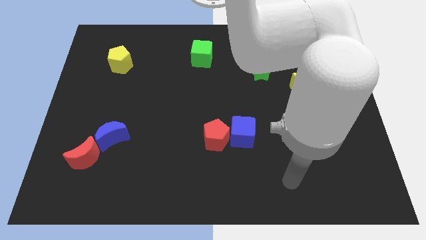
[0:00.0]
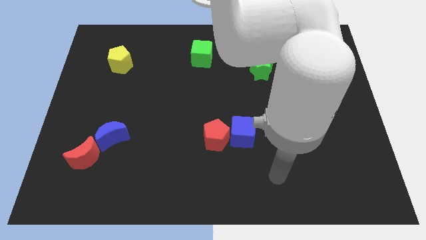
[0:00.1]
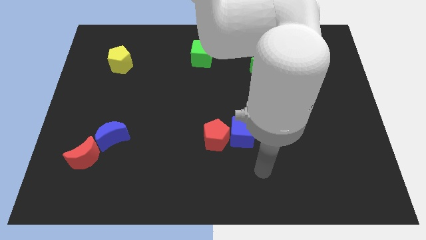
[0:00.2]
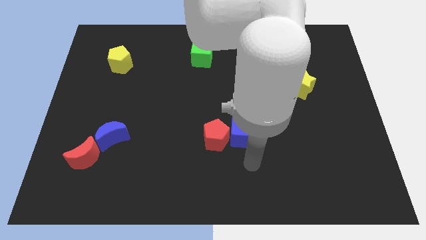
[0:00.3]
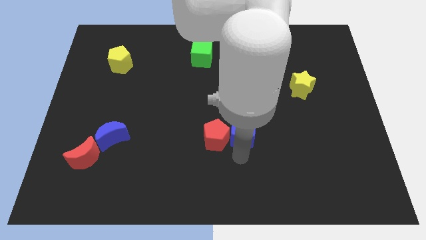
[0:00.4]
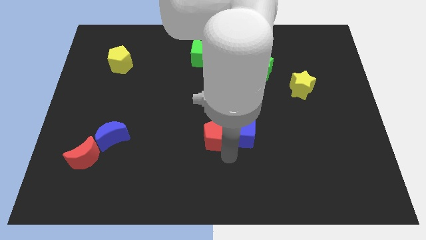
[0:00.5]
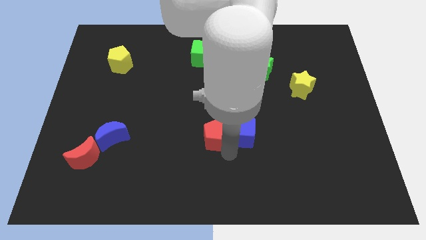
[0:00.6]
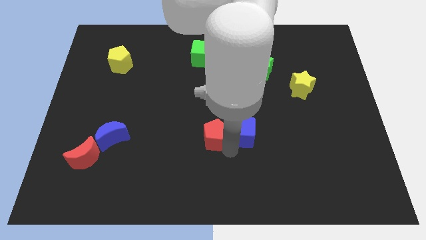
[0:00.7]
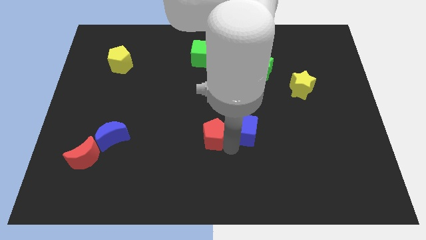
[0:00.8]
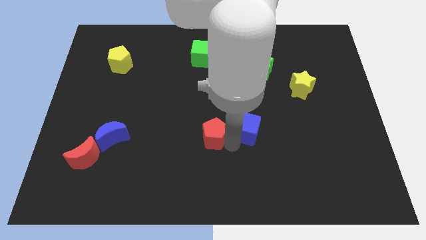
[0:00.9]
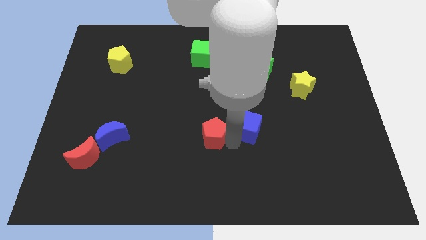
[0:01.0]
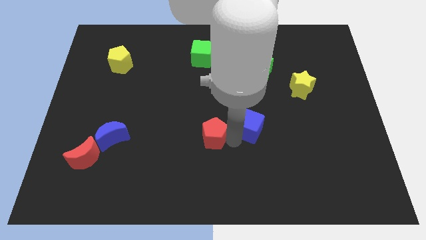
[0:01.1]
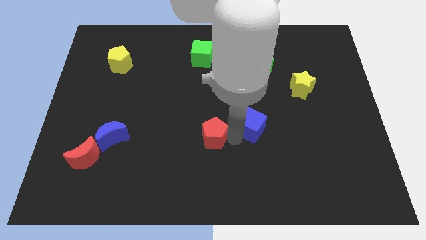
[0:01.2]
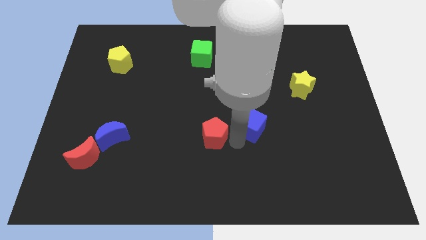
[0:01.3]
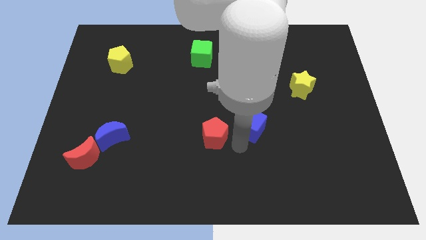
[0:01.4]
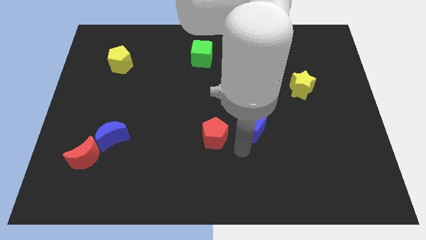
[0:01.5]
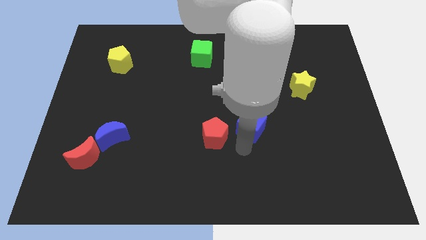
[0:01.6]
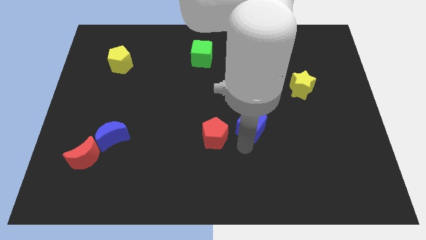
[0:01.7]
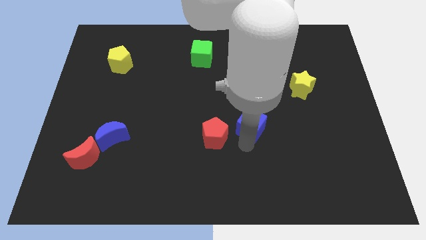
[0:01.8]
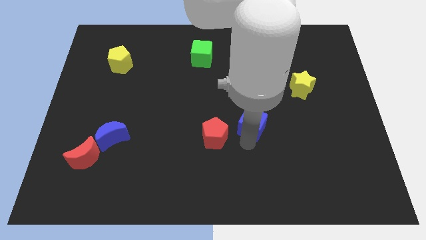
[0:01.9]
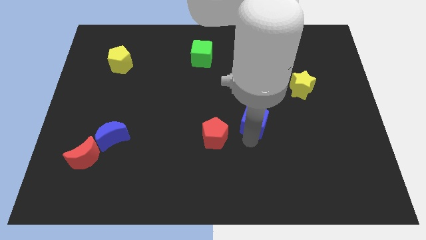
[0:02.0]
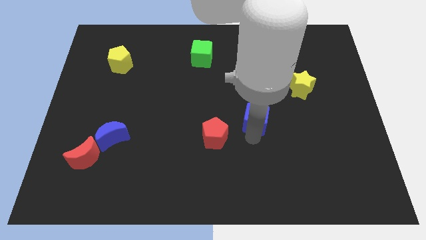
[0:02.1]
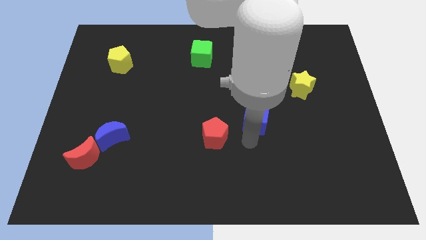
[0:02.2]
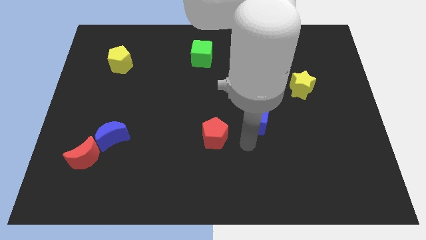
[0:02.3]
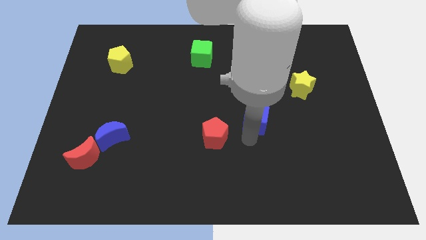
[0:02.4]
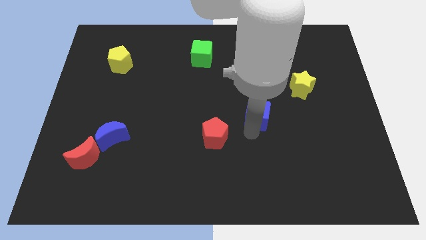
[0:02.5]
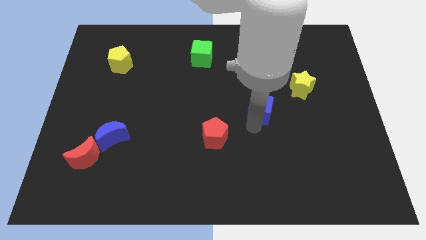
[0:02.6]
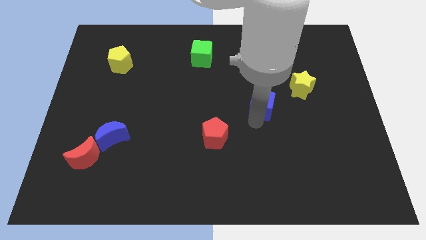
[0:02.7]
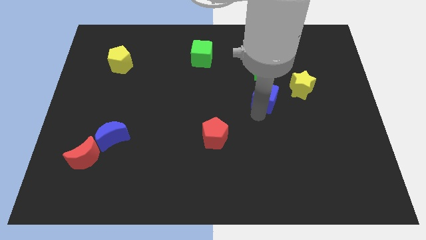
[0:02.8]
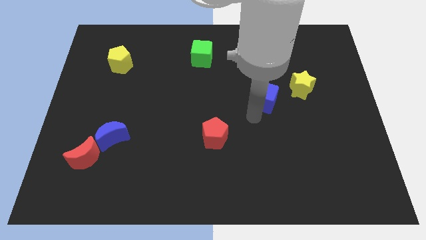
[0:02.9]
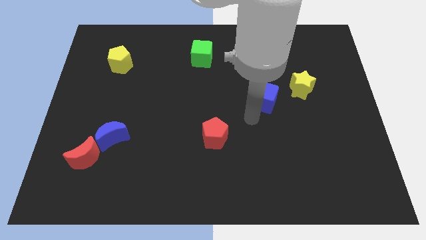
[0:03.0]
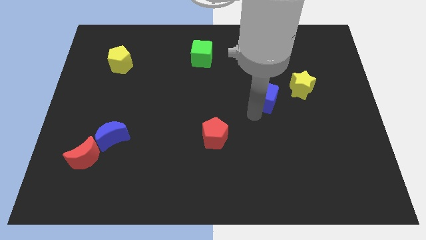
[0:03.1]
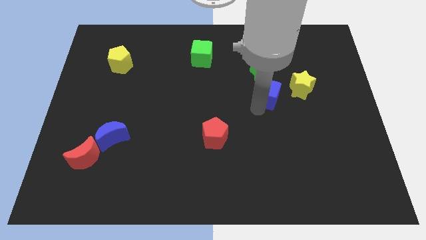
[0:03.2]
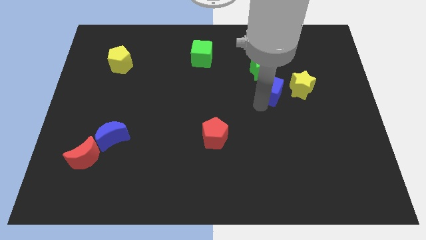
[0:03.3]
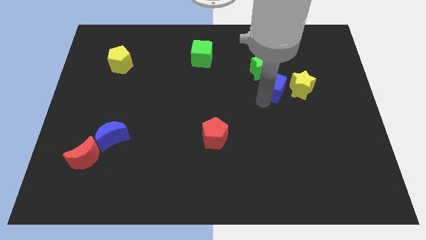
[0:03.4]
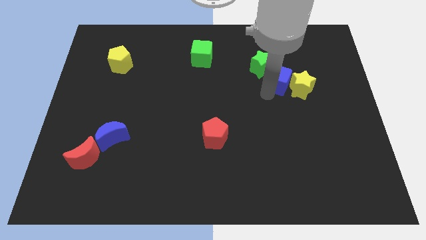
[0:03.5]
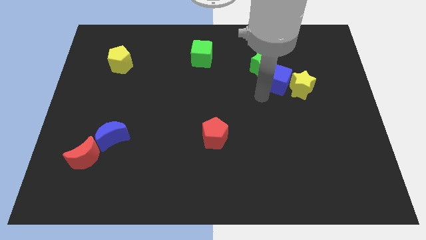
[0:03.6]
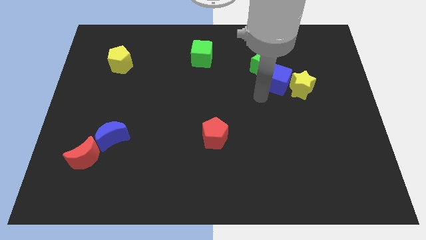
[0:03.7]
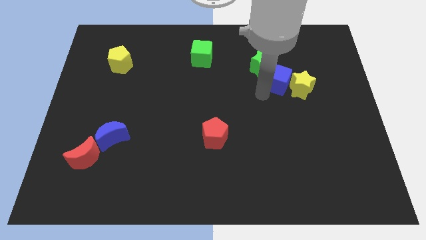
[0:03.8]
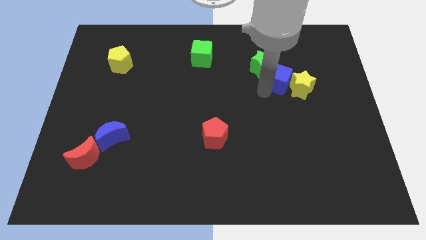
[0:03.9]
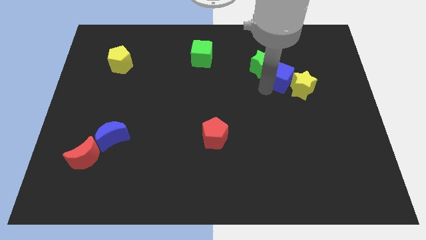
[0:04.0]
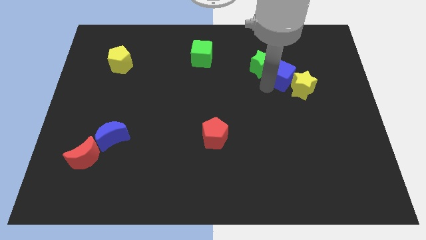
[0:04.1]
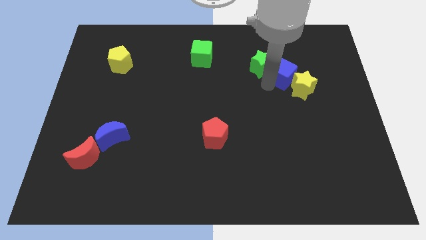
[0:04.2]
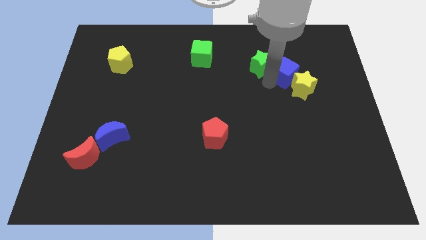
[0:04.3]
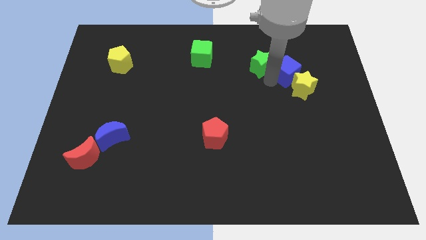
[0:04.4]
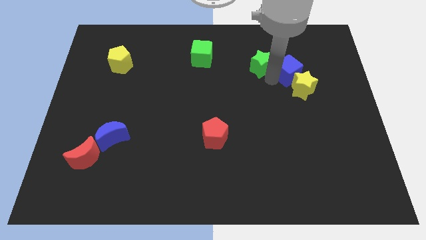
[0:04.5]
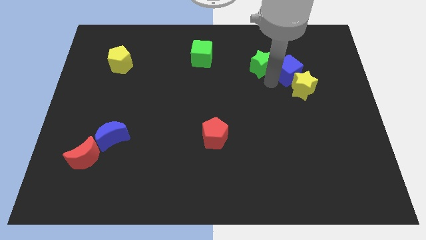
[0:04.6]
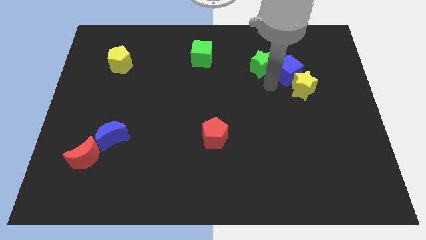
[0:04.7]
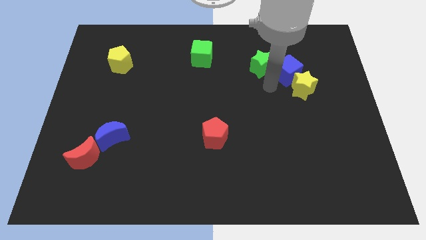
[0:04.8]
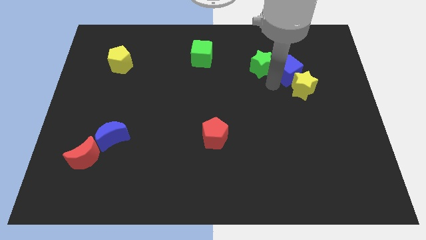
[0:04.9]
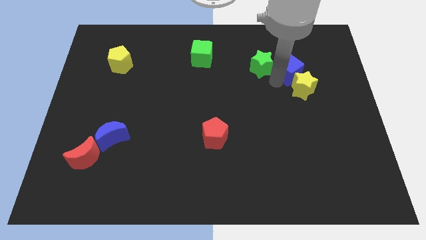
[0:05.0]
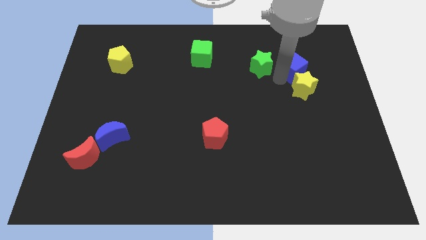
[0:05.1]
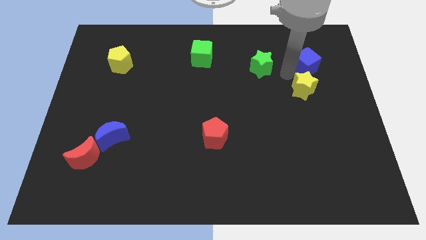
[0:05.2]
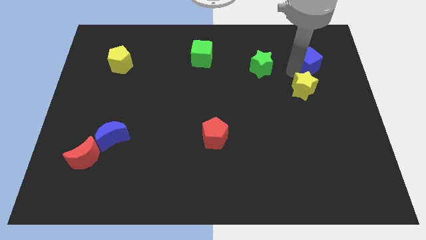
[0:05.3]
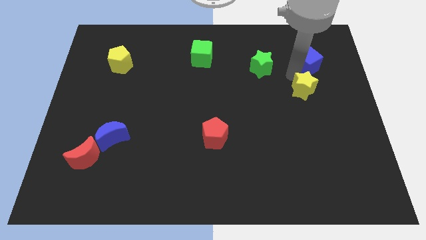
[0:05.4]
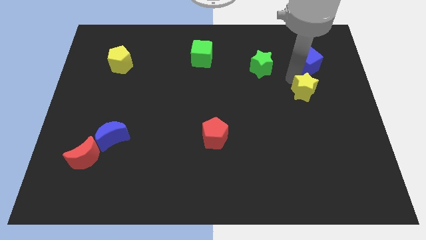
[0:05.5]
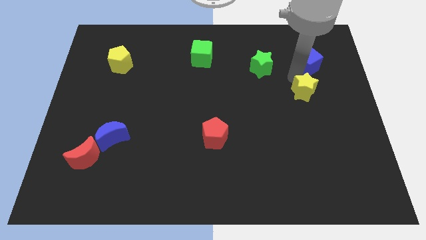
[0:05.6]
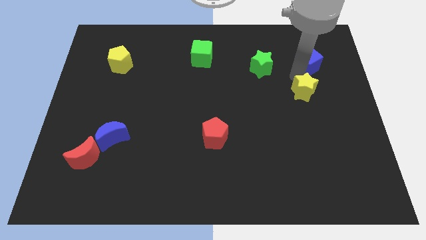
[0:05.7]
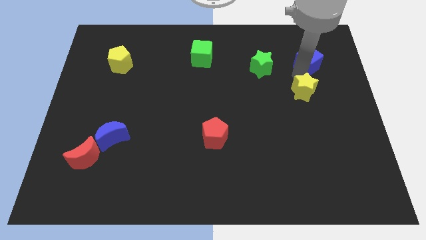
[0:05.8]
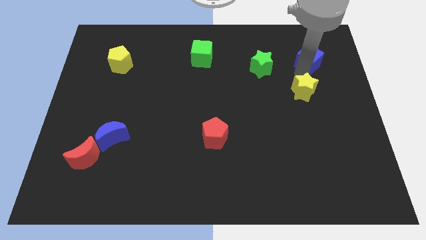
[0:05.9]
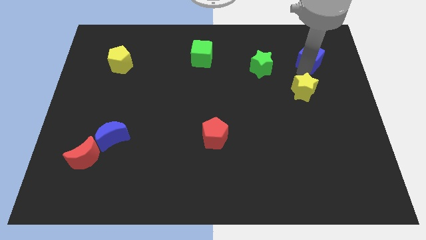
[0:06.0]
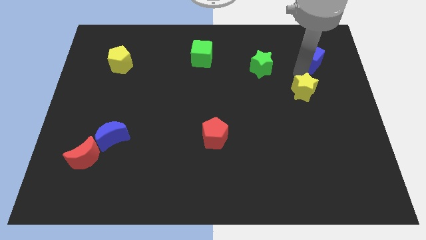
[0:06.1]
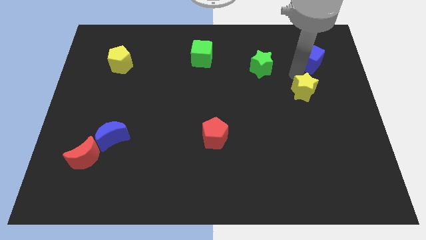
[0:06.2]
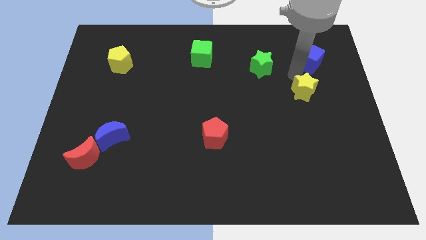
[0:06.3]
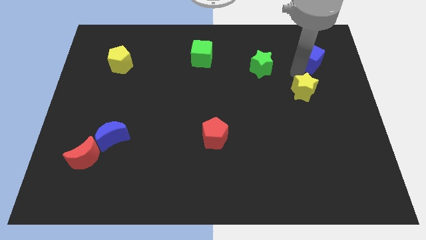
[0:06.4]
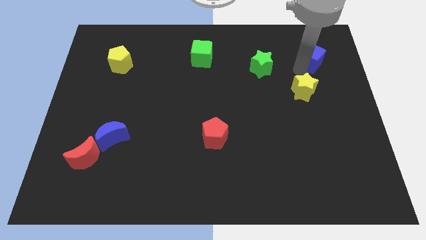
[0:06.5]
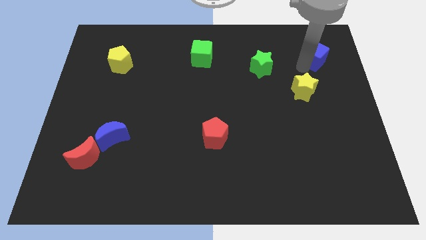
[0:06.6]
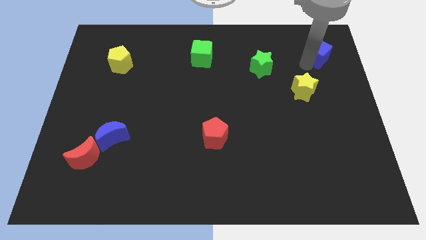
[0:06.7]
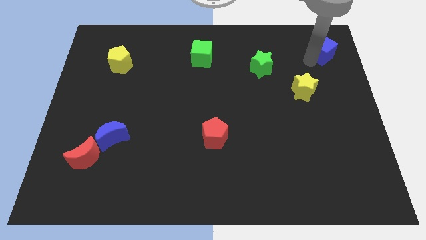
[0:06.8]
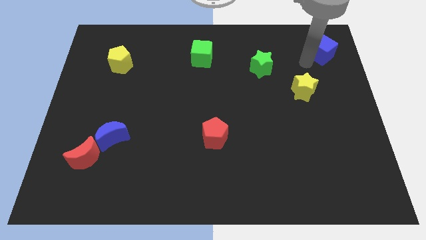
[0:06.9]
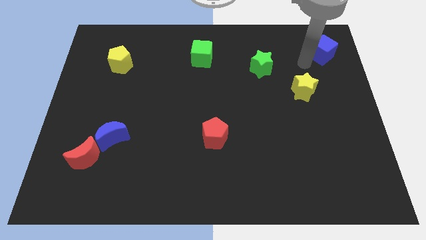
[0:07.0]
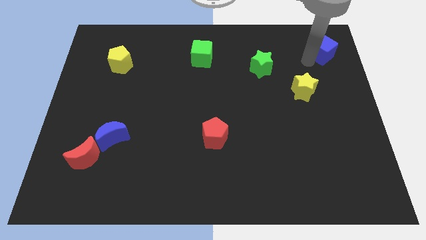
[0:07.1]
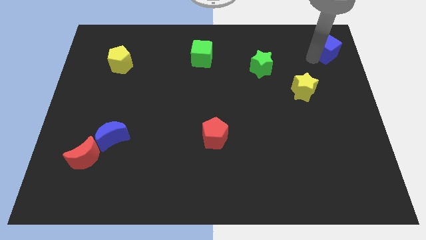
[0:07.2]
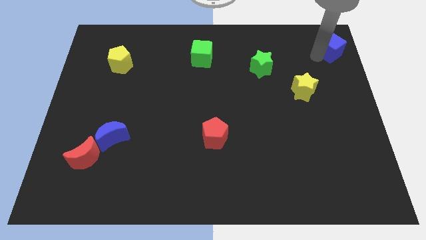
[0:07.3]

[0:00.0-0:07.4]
move the blue cube to the upper right corner
